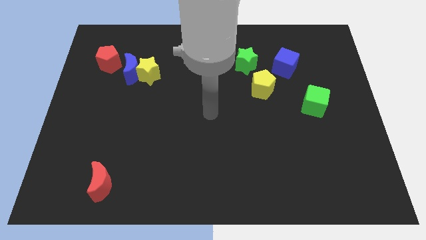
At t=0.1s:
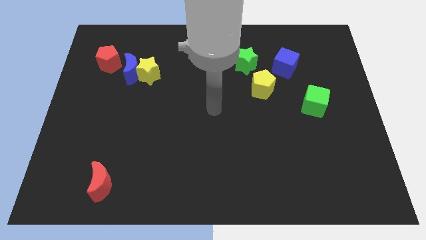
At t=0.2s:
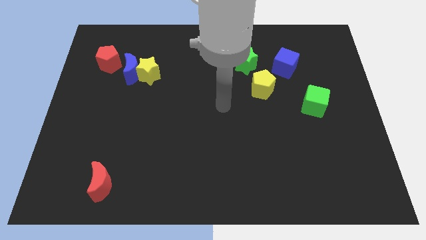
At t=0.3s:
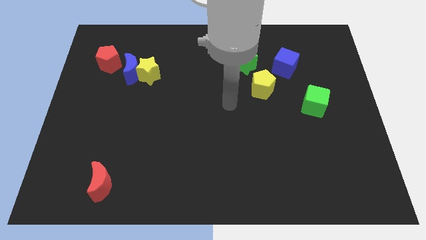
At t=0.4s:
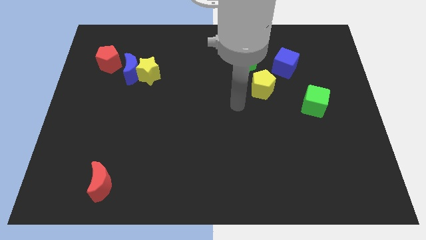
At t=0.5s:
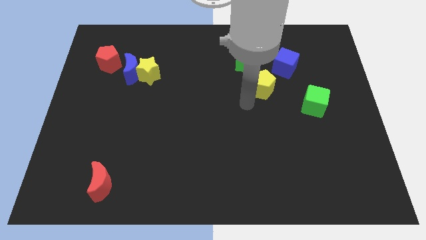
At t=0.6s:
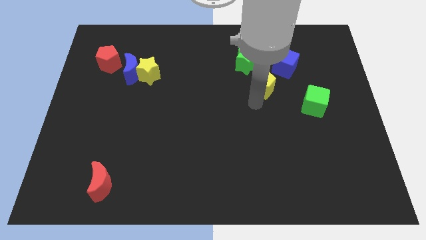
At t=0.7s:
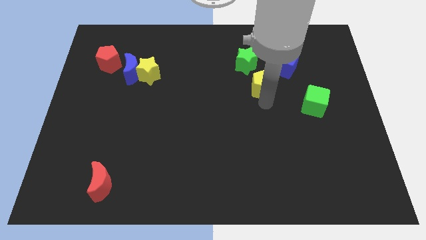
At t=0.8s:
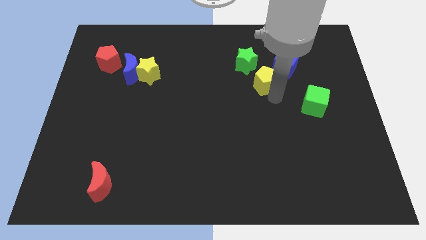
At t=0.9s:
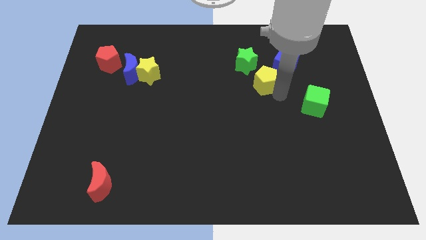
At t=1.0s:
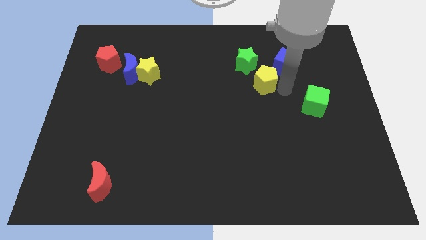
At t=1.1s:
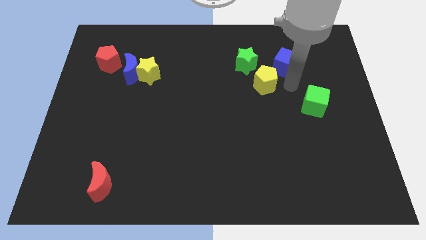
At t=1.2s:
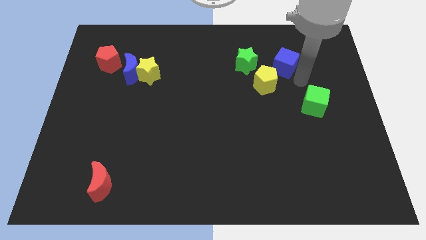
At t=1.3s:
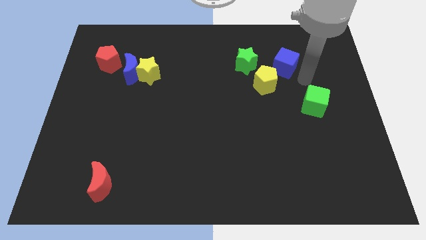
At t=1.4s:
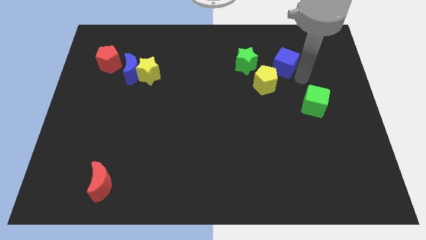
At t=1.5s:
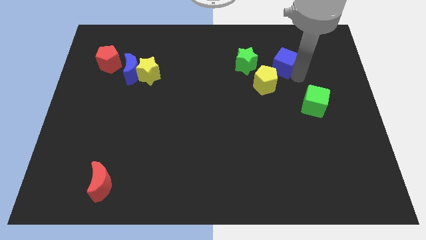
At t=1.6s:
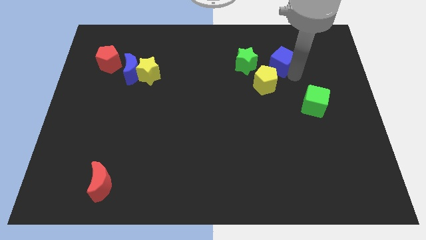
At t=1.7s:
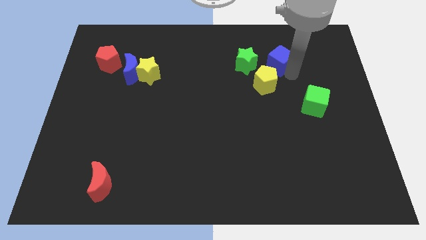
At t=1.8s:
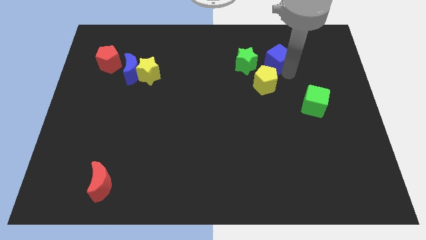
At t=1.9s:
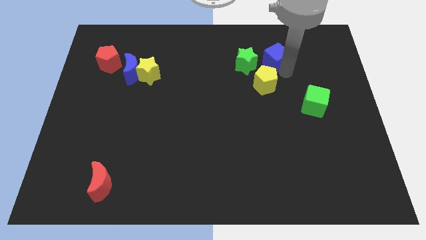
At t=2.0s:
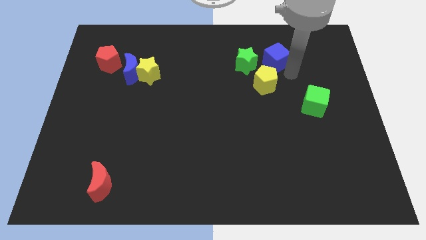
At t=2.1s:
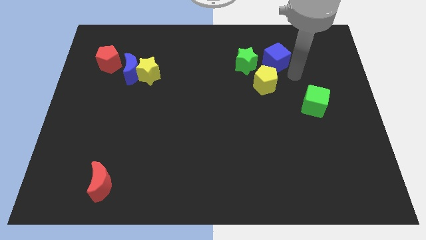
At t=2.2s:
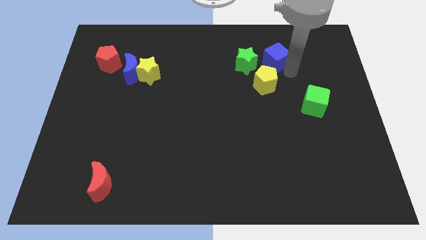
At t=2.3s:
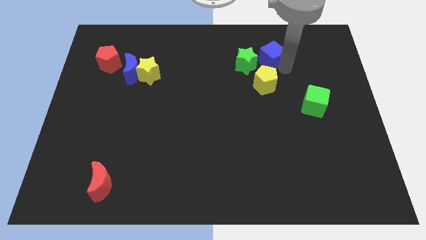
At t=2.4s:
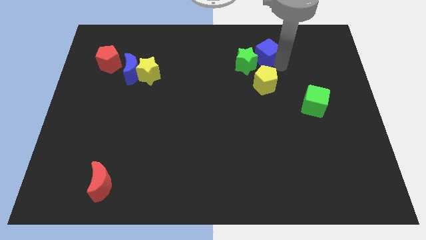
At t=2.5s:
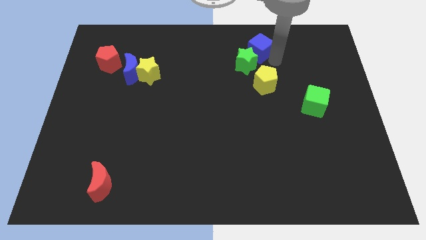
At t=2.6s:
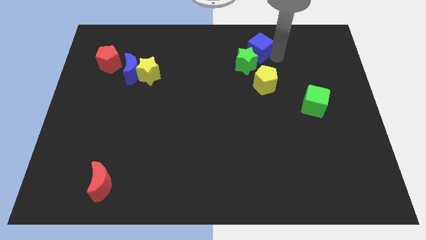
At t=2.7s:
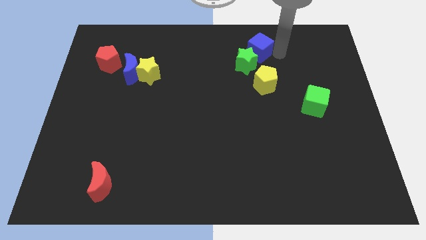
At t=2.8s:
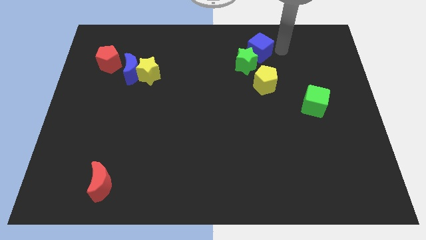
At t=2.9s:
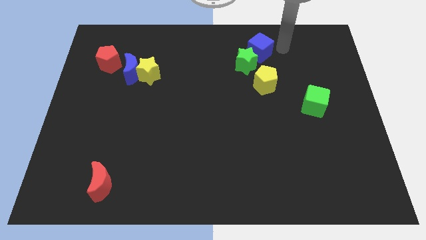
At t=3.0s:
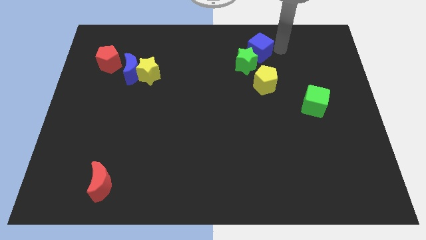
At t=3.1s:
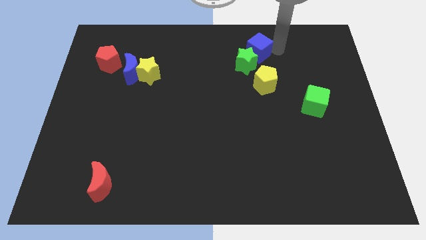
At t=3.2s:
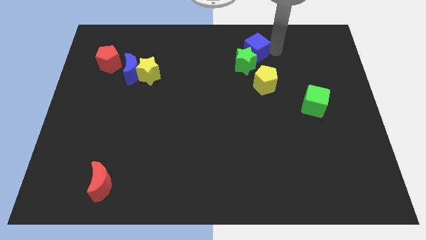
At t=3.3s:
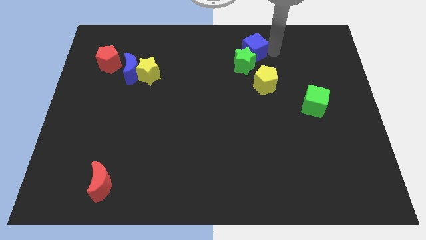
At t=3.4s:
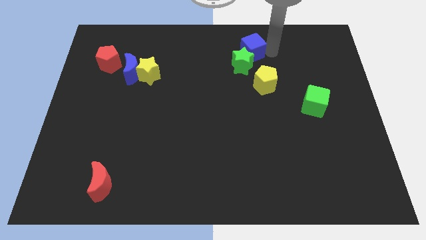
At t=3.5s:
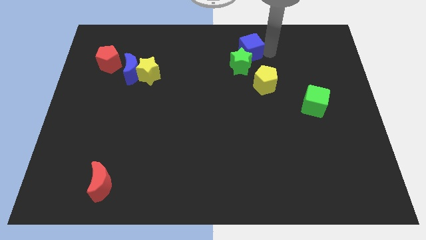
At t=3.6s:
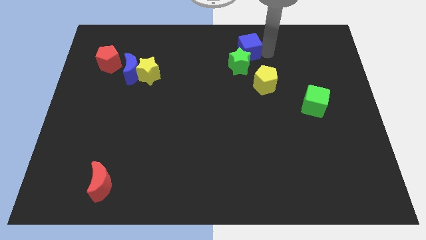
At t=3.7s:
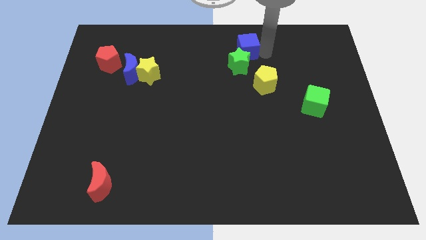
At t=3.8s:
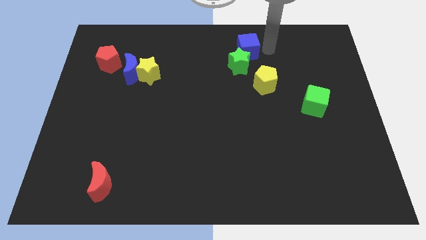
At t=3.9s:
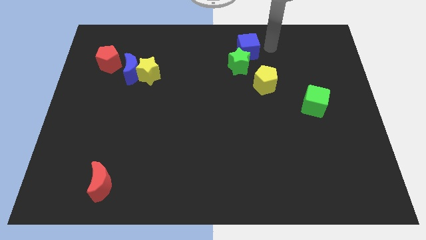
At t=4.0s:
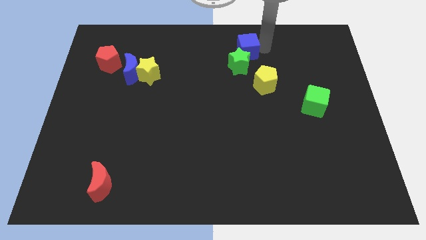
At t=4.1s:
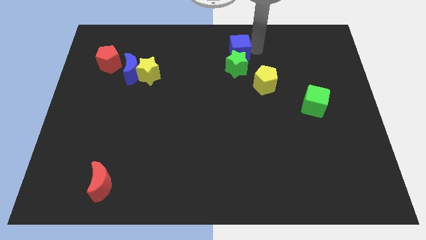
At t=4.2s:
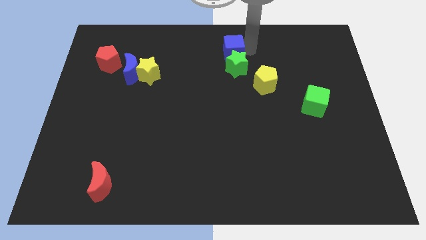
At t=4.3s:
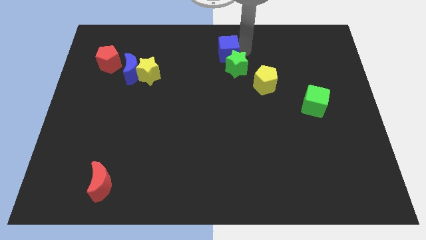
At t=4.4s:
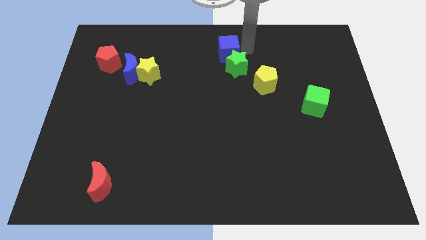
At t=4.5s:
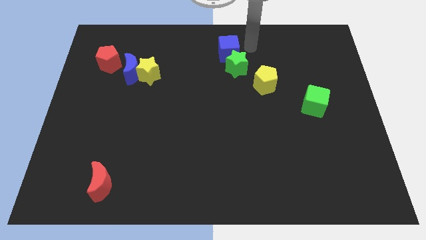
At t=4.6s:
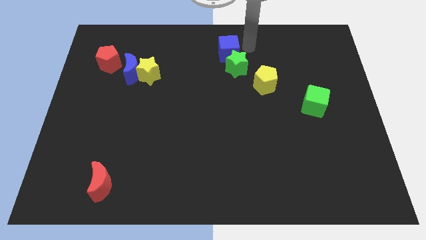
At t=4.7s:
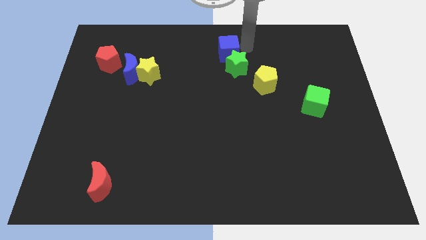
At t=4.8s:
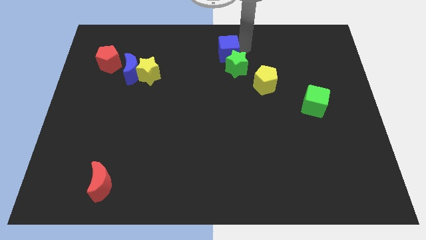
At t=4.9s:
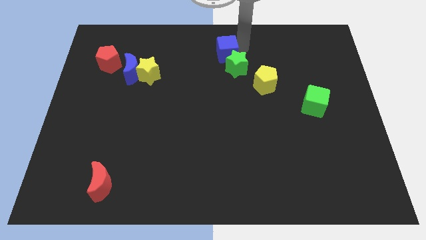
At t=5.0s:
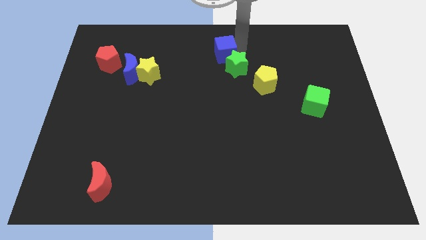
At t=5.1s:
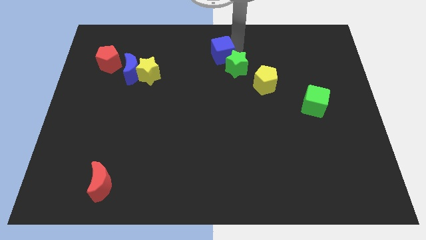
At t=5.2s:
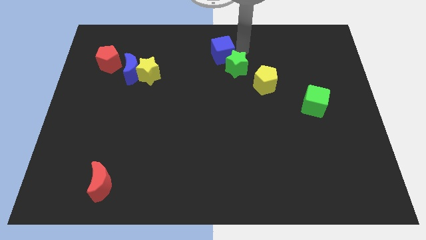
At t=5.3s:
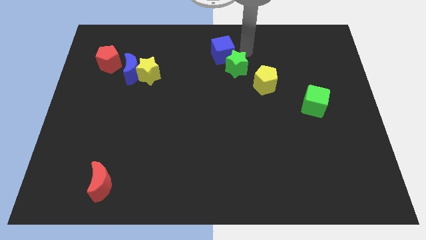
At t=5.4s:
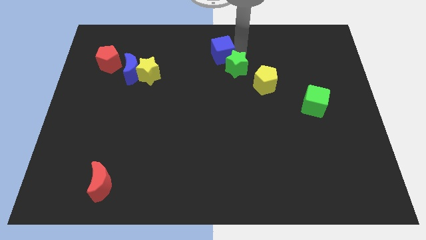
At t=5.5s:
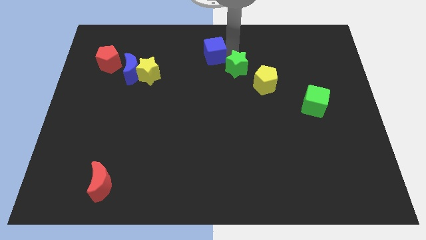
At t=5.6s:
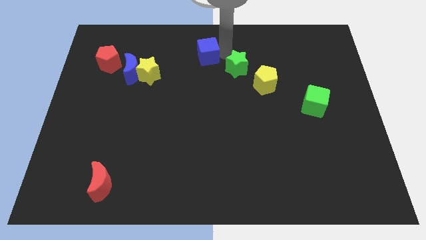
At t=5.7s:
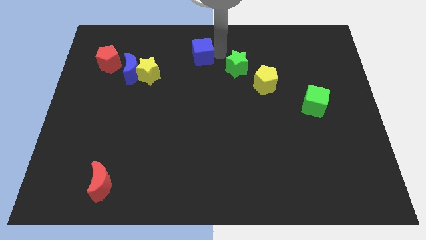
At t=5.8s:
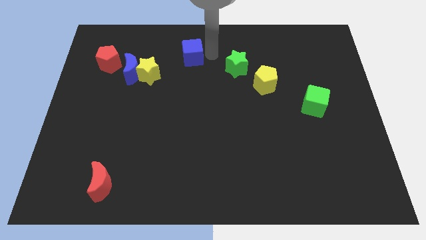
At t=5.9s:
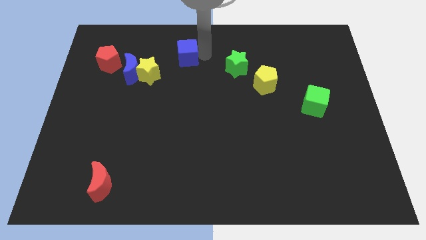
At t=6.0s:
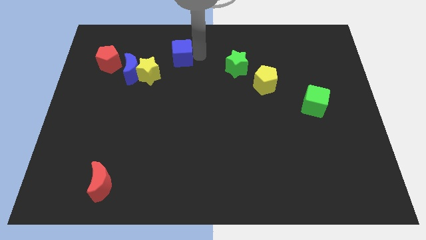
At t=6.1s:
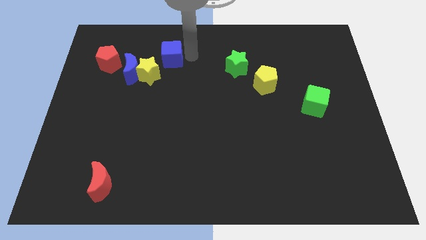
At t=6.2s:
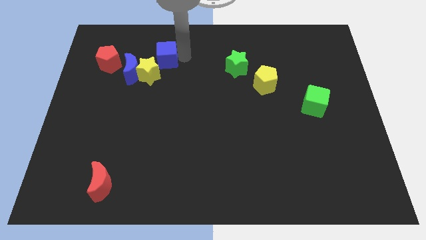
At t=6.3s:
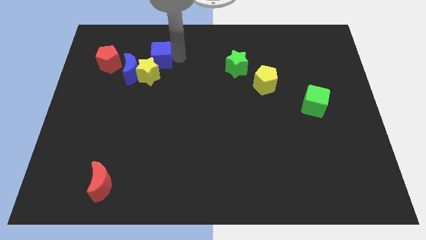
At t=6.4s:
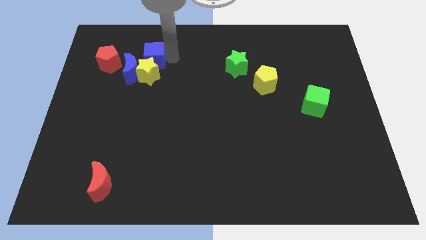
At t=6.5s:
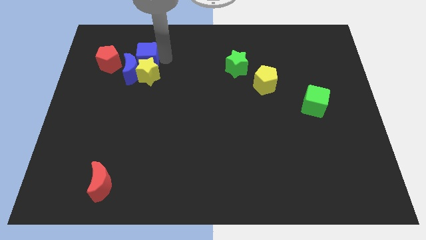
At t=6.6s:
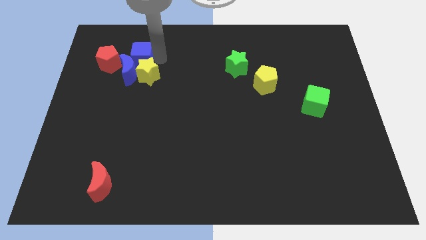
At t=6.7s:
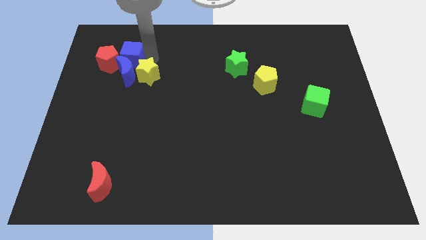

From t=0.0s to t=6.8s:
move the blue cube close to the red pentagon
